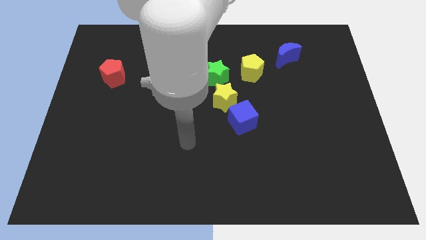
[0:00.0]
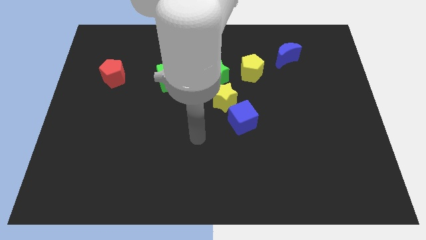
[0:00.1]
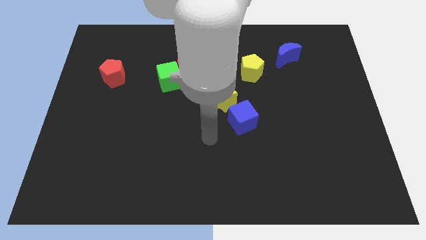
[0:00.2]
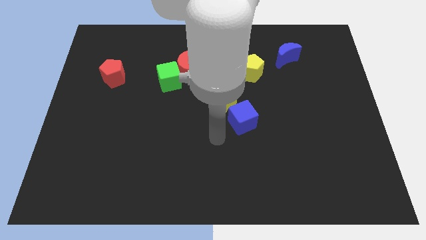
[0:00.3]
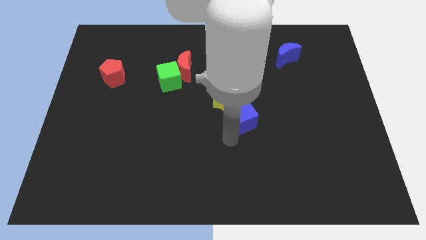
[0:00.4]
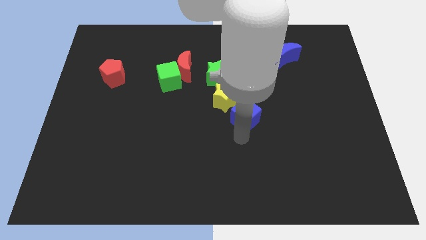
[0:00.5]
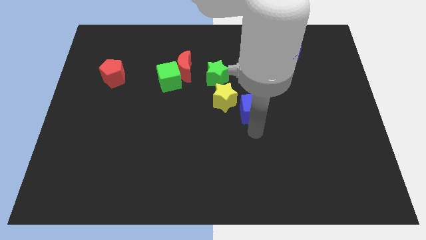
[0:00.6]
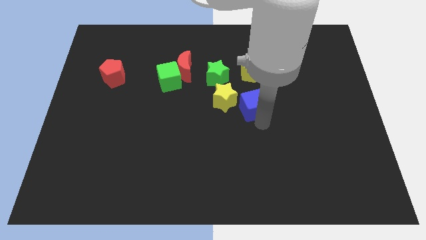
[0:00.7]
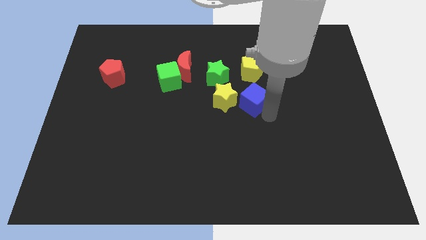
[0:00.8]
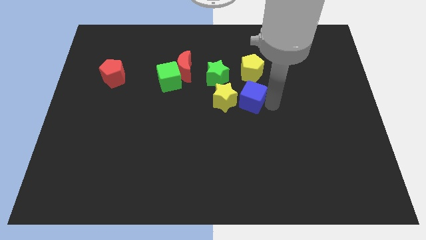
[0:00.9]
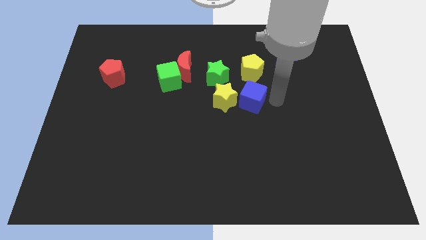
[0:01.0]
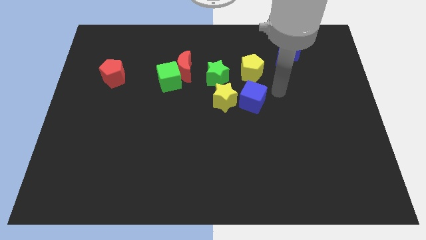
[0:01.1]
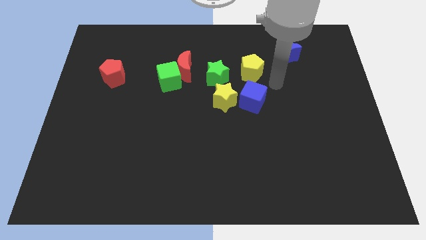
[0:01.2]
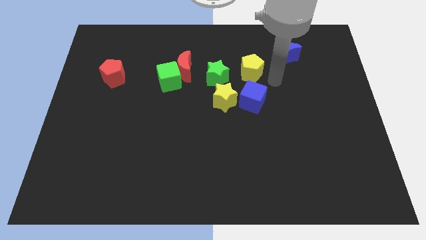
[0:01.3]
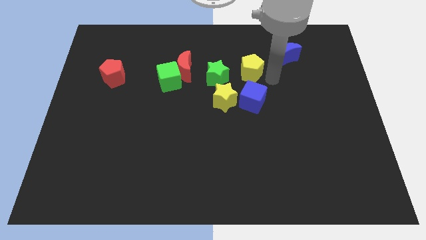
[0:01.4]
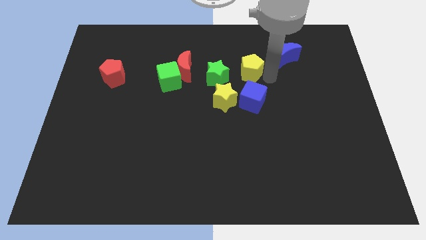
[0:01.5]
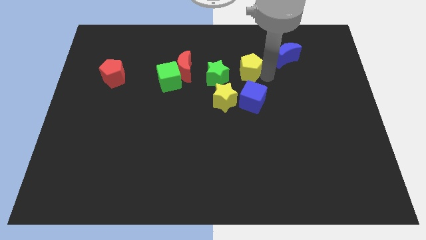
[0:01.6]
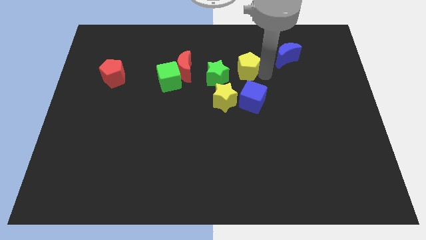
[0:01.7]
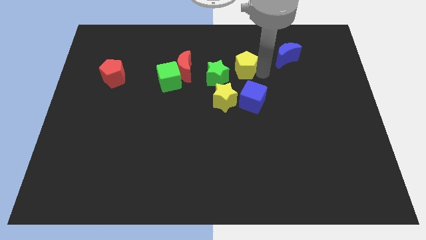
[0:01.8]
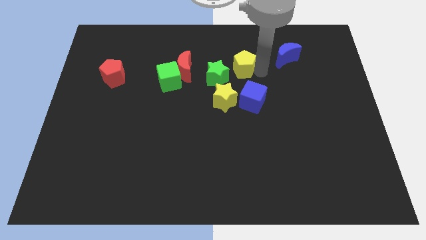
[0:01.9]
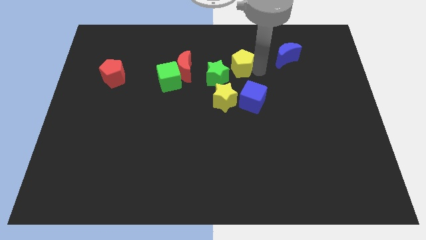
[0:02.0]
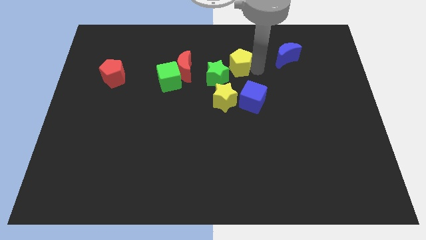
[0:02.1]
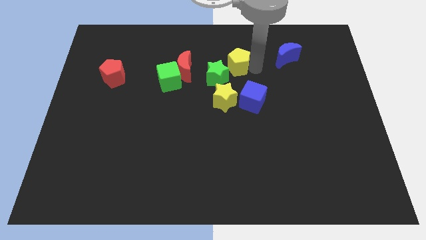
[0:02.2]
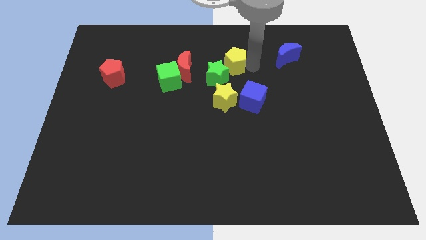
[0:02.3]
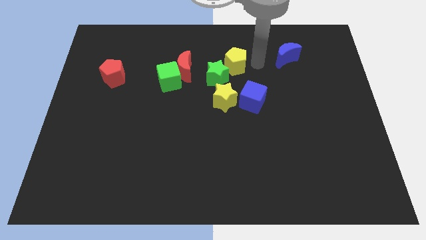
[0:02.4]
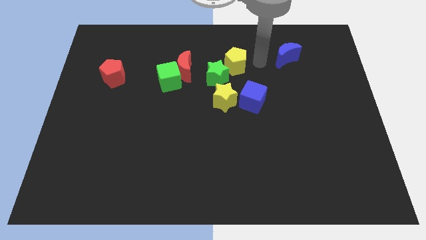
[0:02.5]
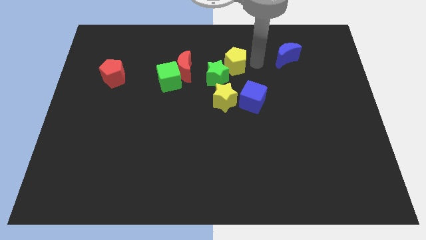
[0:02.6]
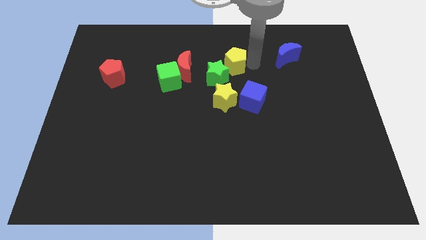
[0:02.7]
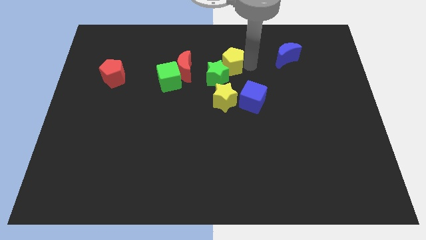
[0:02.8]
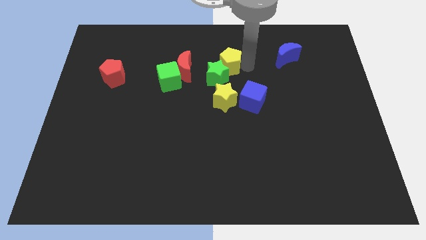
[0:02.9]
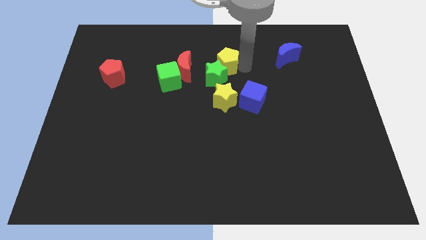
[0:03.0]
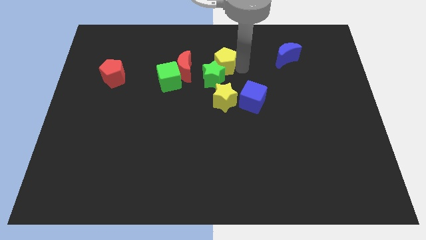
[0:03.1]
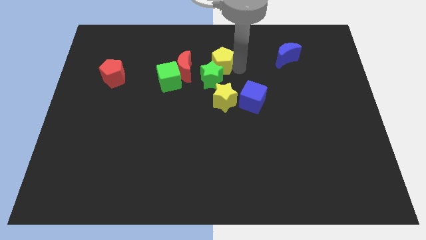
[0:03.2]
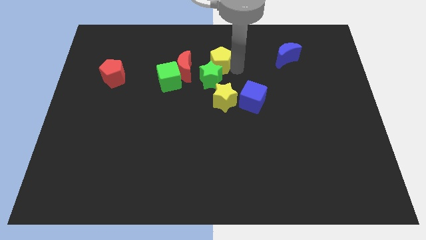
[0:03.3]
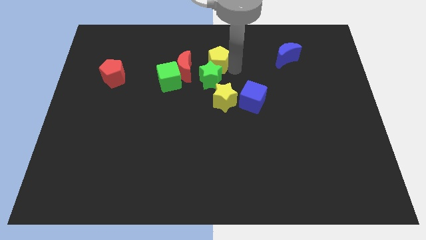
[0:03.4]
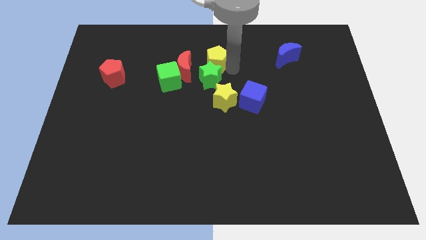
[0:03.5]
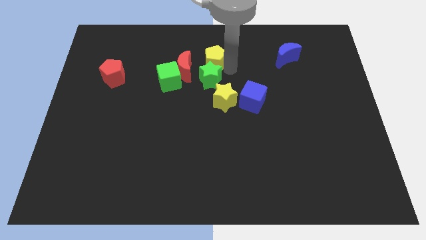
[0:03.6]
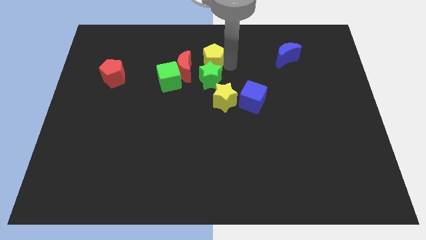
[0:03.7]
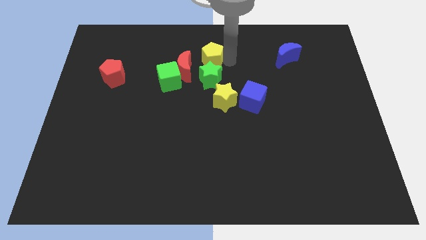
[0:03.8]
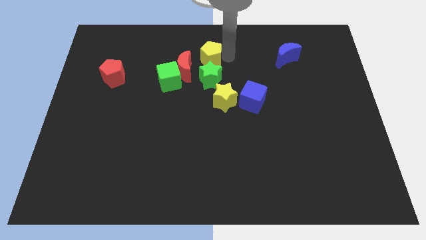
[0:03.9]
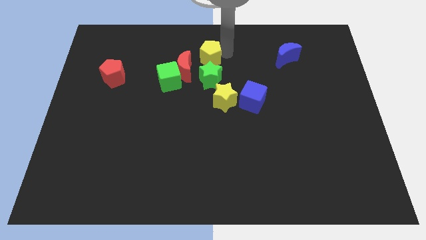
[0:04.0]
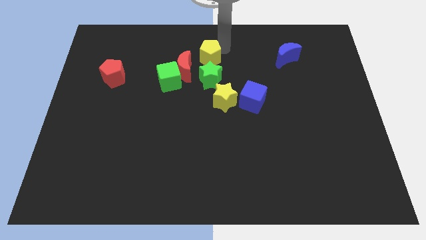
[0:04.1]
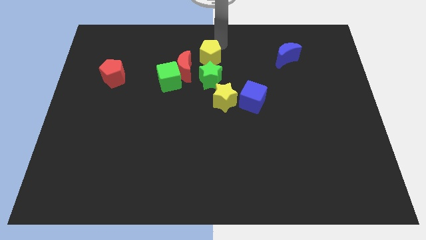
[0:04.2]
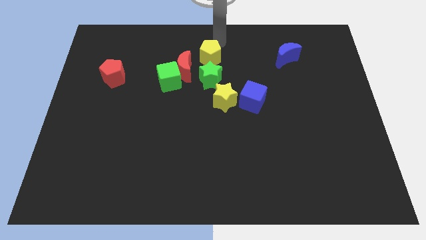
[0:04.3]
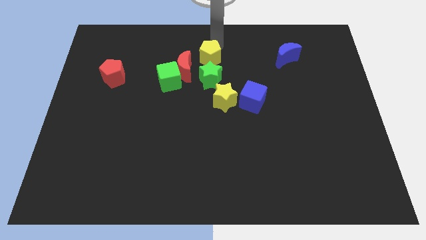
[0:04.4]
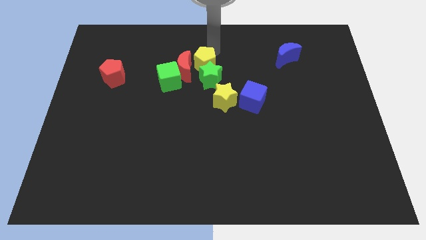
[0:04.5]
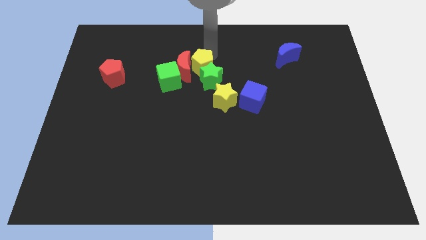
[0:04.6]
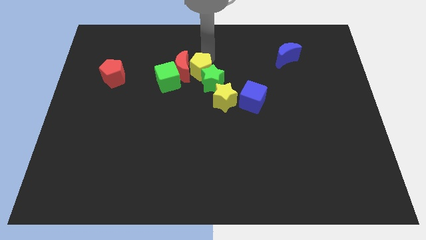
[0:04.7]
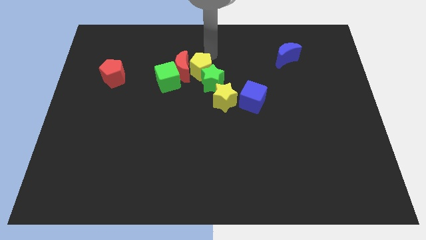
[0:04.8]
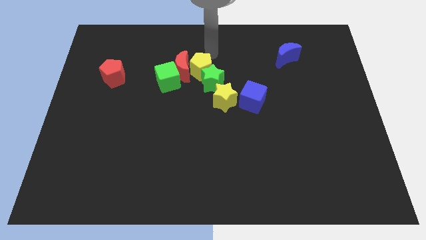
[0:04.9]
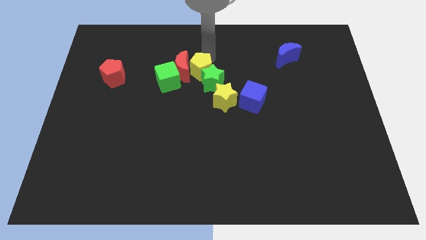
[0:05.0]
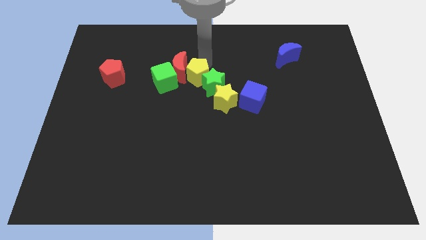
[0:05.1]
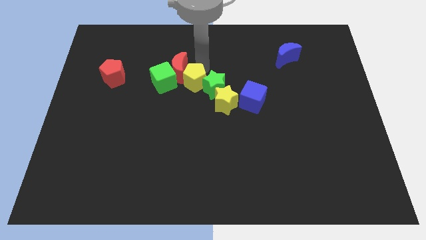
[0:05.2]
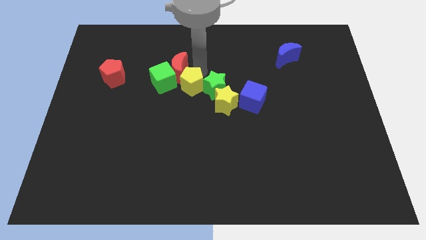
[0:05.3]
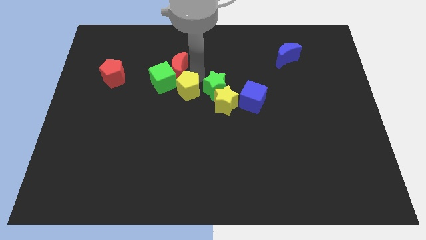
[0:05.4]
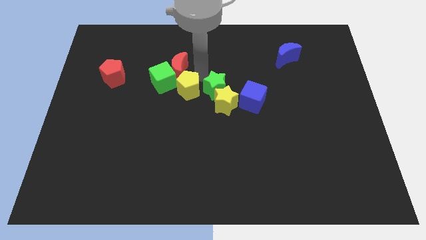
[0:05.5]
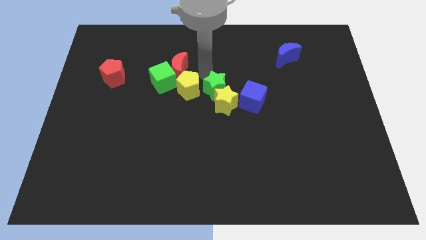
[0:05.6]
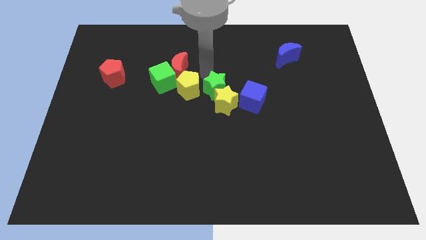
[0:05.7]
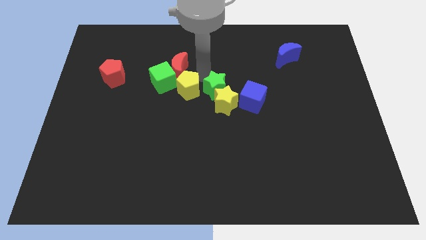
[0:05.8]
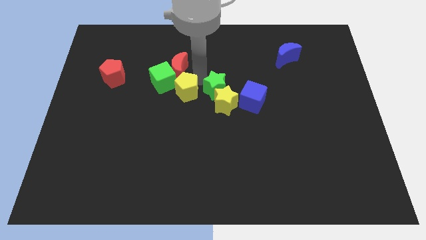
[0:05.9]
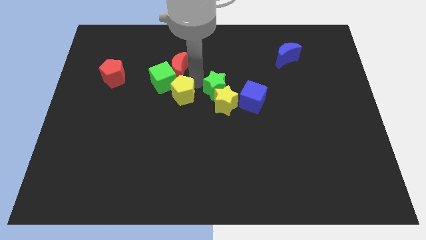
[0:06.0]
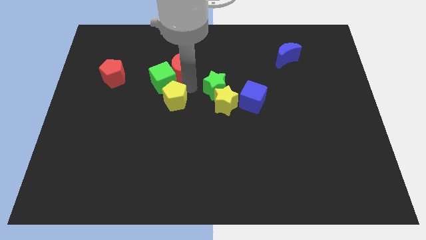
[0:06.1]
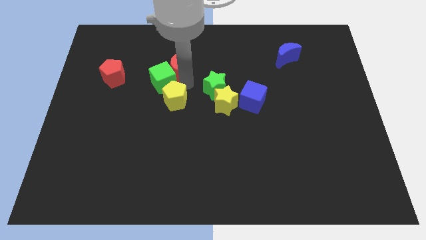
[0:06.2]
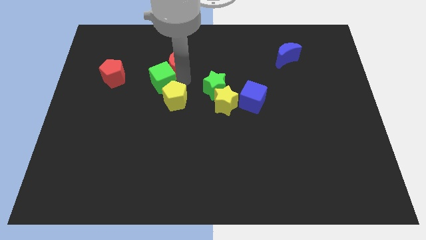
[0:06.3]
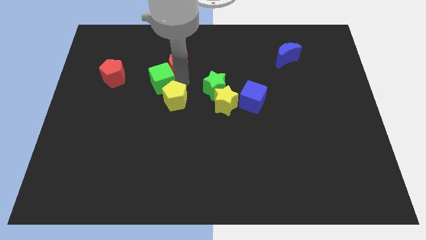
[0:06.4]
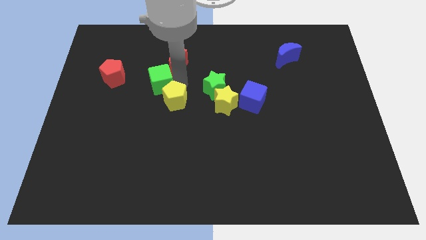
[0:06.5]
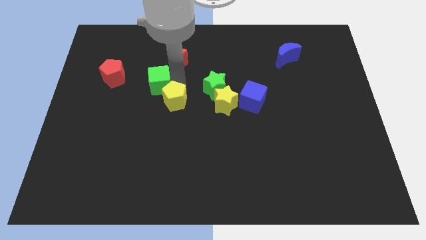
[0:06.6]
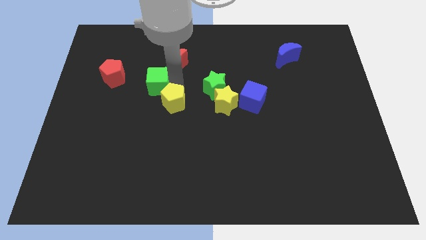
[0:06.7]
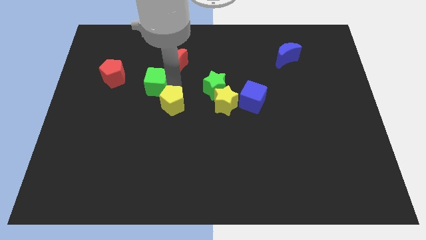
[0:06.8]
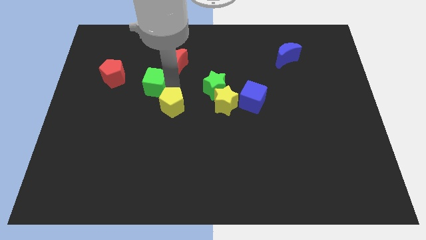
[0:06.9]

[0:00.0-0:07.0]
move the yellow pentagon down and left

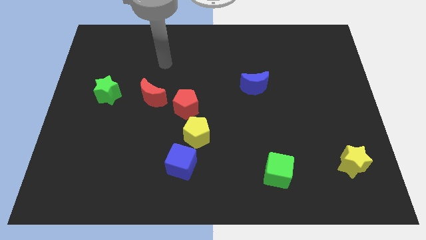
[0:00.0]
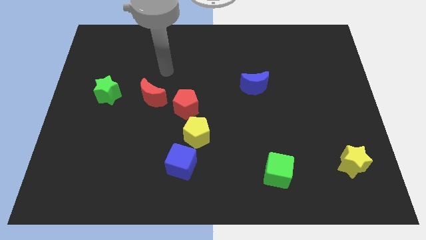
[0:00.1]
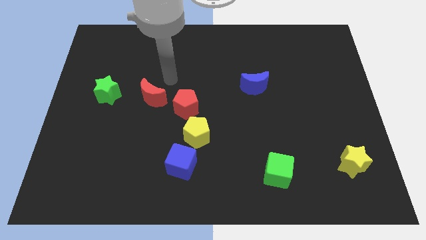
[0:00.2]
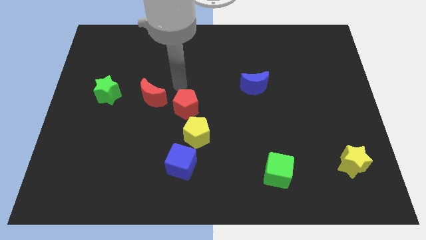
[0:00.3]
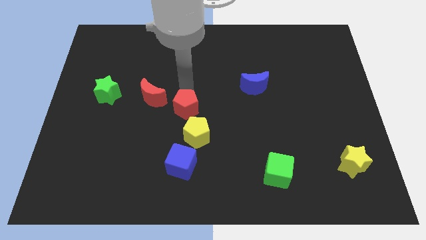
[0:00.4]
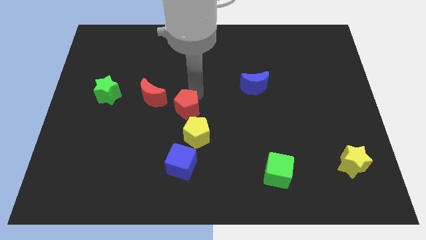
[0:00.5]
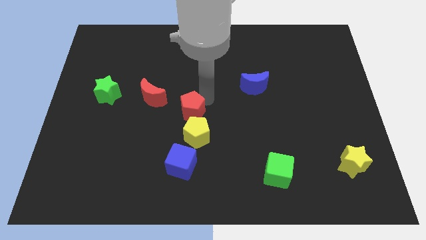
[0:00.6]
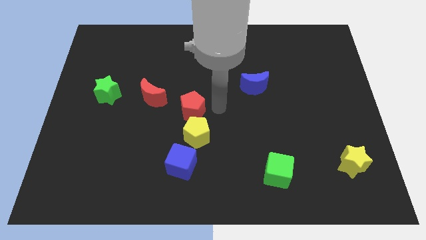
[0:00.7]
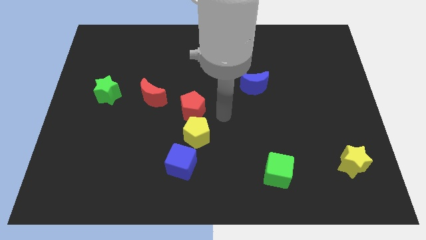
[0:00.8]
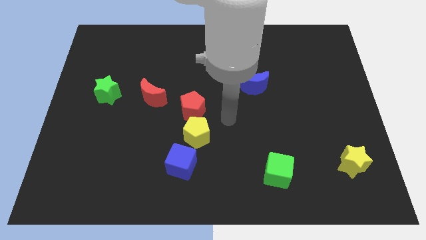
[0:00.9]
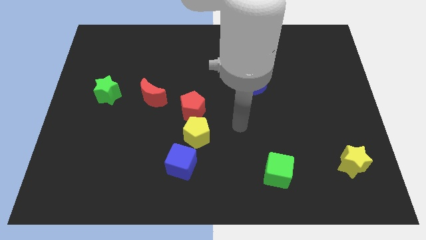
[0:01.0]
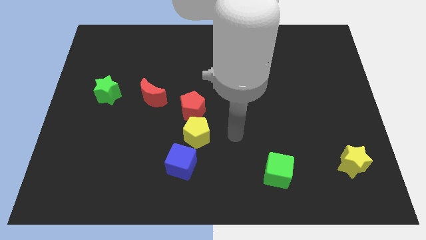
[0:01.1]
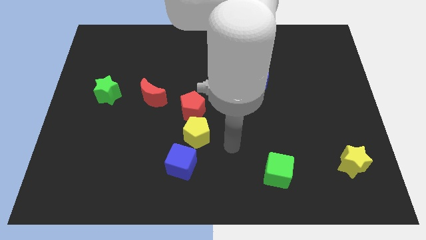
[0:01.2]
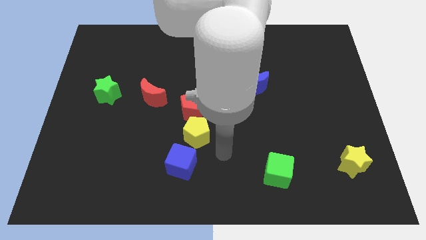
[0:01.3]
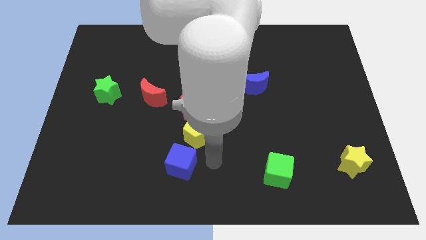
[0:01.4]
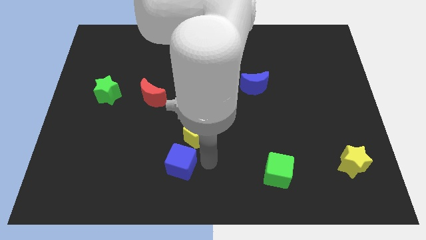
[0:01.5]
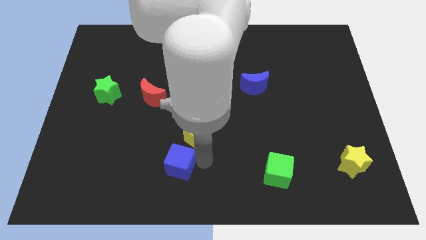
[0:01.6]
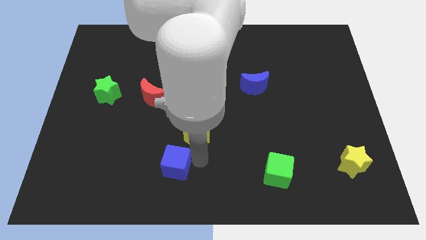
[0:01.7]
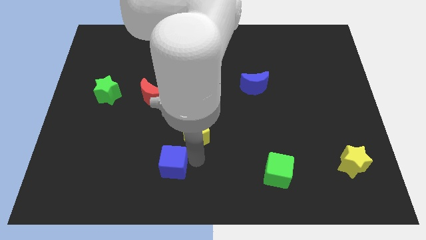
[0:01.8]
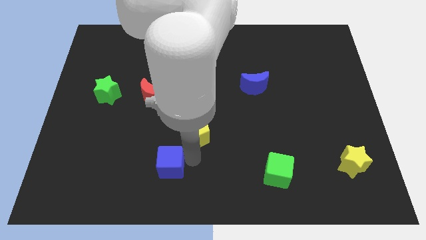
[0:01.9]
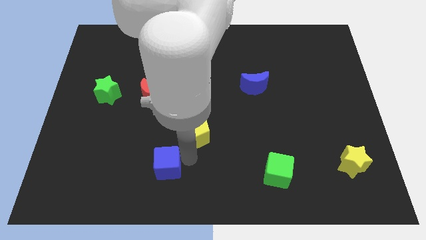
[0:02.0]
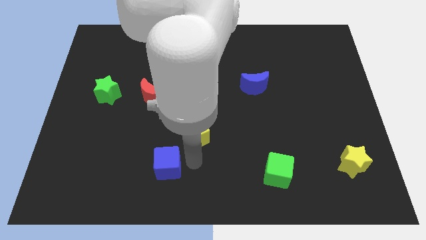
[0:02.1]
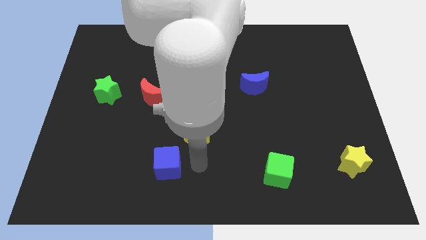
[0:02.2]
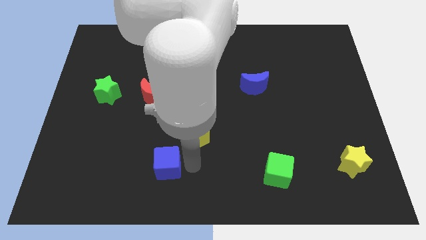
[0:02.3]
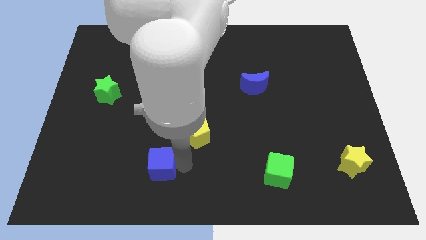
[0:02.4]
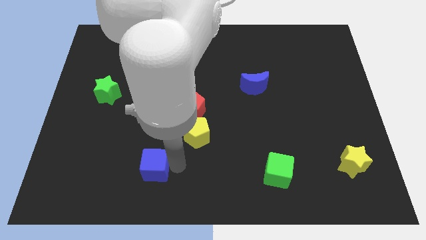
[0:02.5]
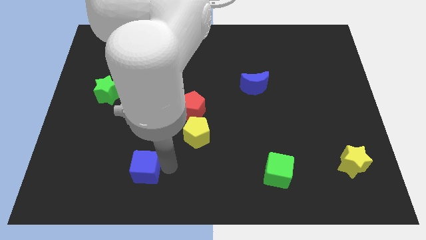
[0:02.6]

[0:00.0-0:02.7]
push the blue cube to the left a little
